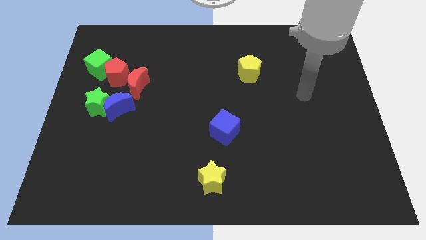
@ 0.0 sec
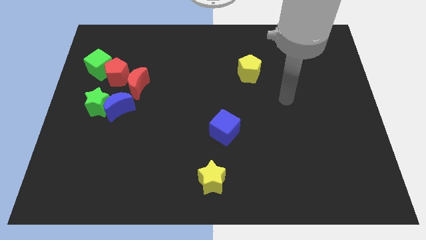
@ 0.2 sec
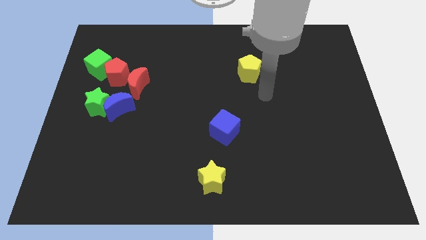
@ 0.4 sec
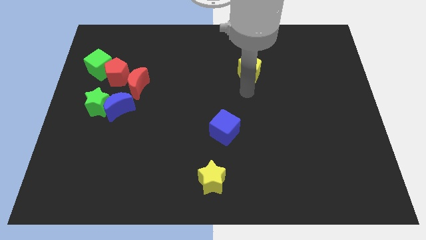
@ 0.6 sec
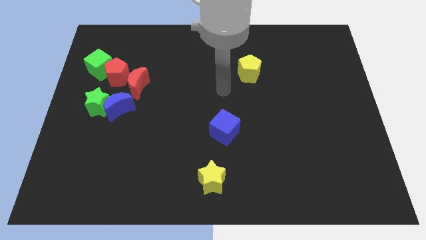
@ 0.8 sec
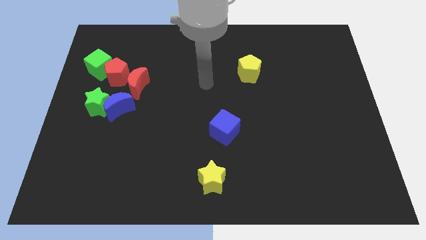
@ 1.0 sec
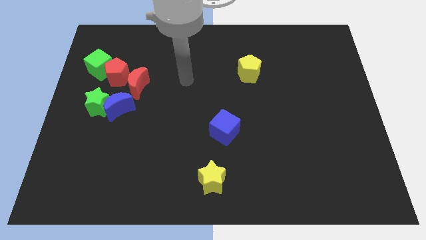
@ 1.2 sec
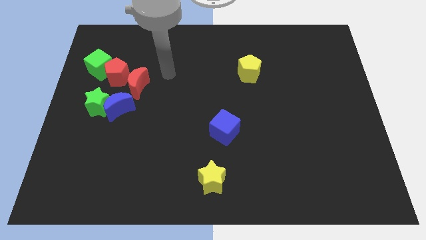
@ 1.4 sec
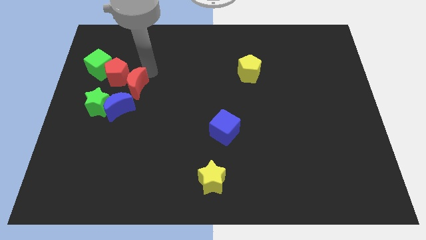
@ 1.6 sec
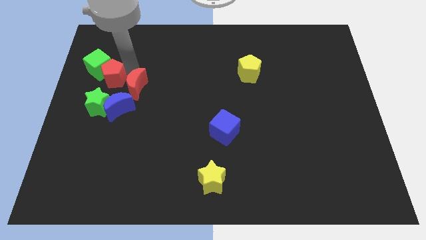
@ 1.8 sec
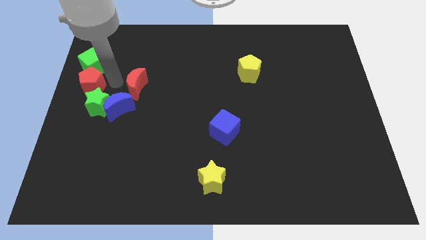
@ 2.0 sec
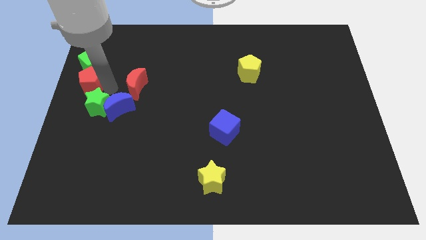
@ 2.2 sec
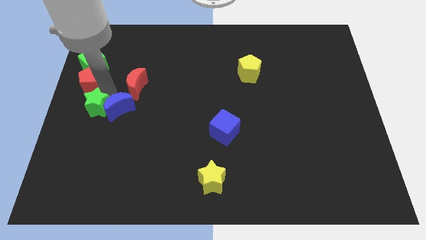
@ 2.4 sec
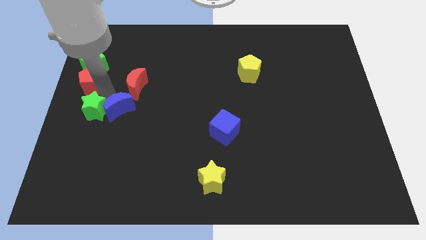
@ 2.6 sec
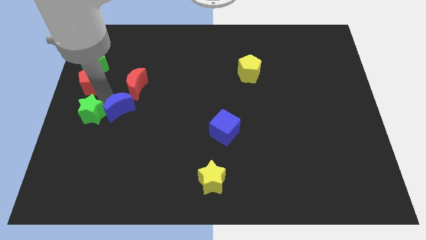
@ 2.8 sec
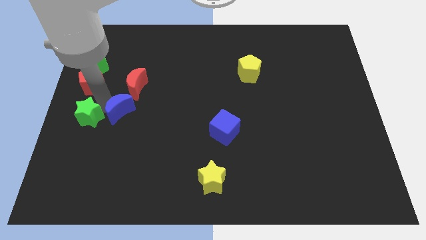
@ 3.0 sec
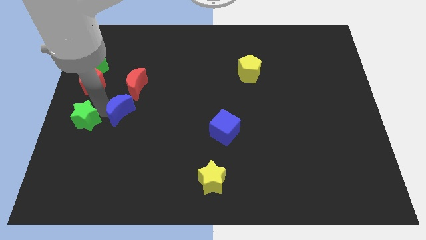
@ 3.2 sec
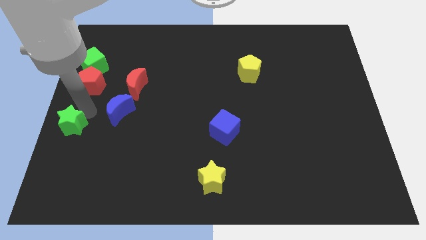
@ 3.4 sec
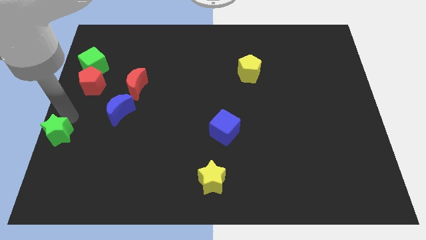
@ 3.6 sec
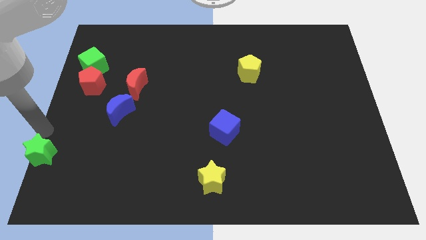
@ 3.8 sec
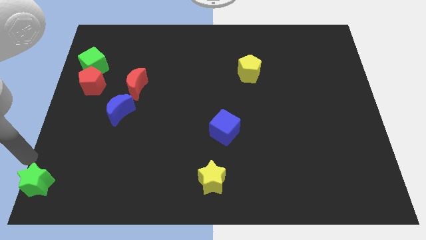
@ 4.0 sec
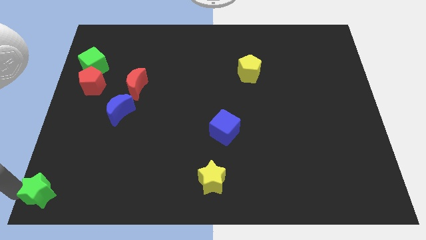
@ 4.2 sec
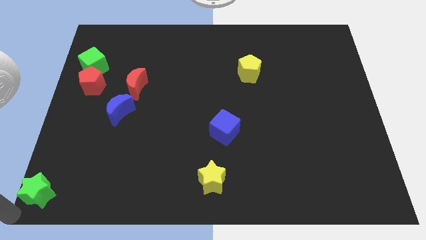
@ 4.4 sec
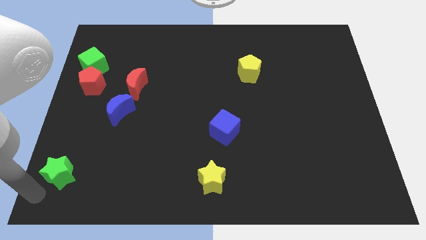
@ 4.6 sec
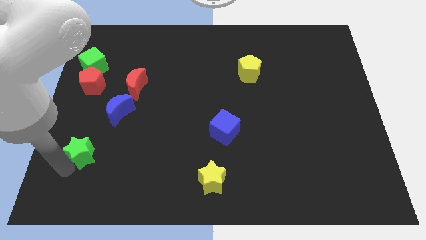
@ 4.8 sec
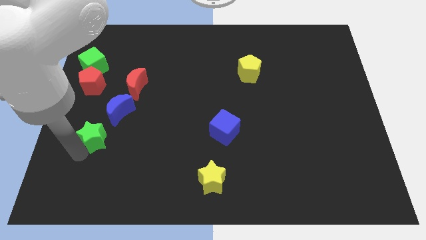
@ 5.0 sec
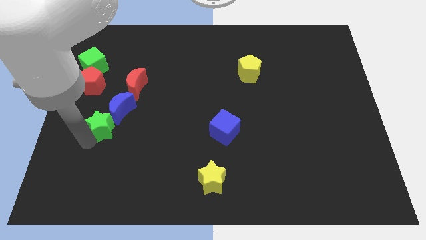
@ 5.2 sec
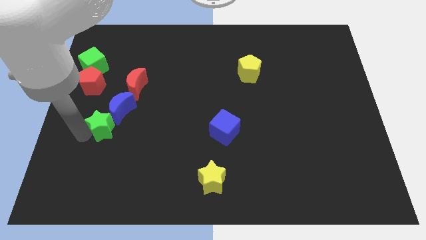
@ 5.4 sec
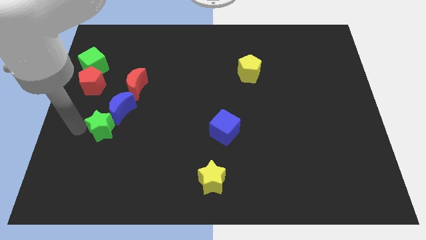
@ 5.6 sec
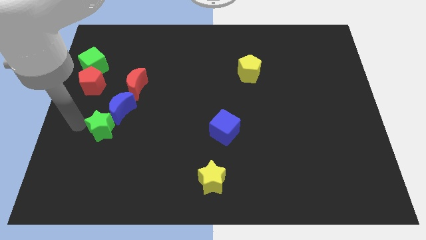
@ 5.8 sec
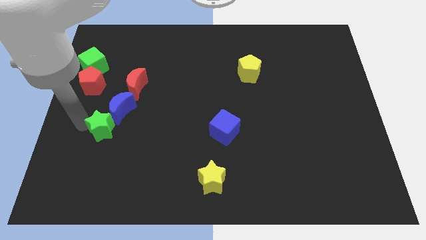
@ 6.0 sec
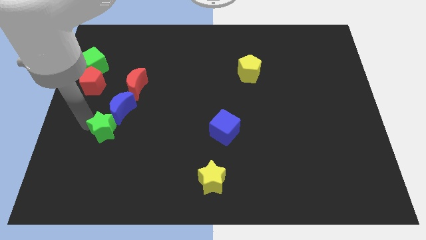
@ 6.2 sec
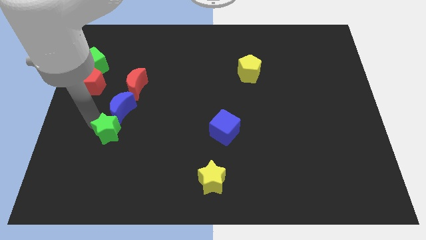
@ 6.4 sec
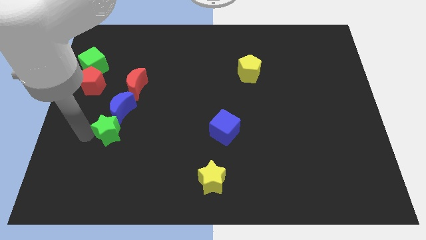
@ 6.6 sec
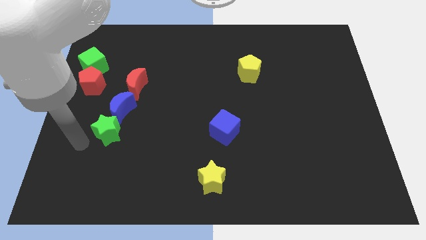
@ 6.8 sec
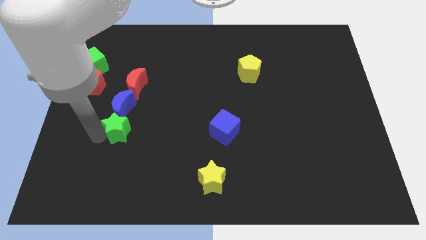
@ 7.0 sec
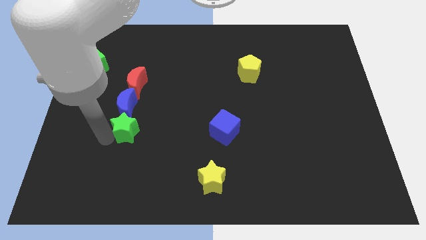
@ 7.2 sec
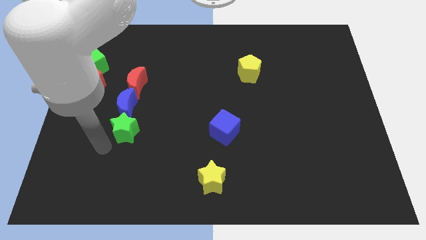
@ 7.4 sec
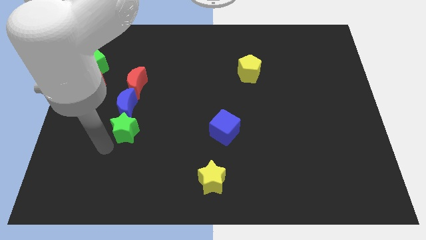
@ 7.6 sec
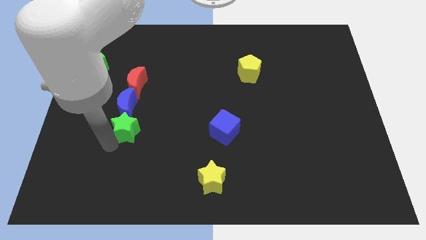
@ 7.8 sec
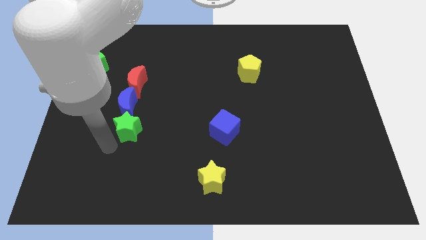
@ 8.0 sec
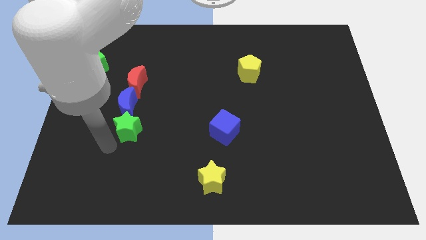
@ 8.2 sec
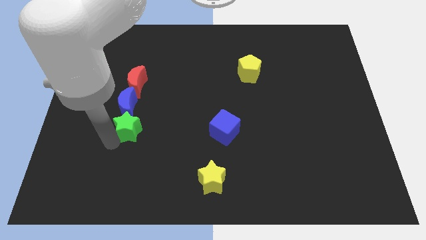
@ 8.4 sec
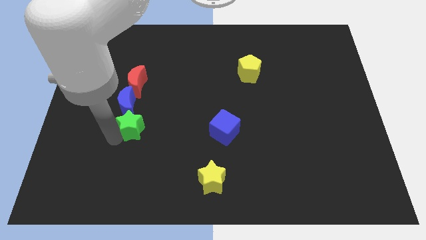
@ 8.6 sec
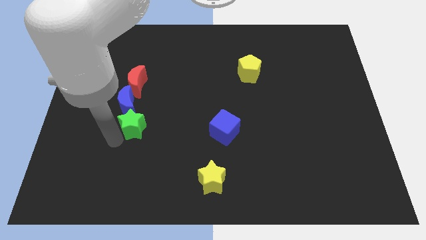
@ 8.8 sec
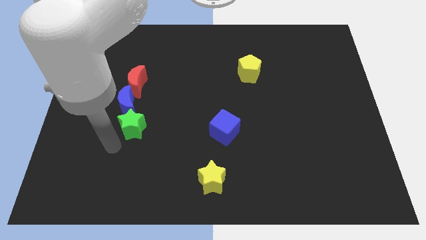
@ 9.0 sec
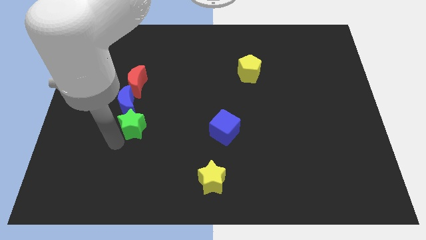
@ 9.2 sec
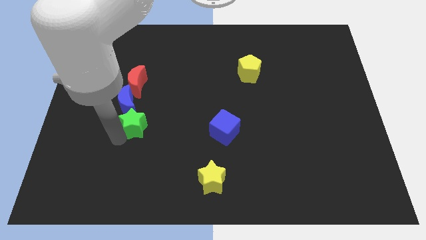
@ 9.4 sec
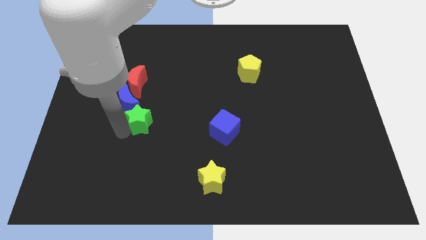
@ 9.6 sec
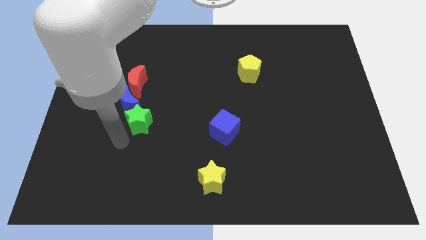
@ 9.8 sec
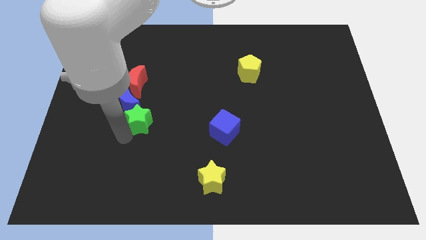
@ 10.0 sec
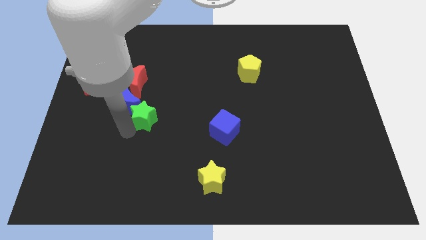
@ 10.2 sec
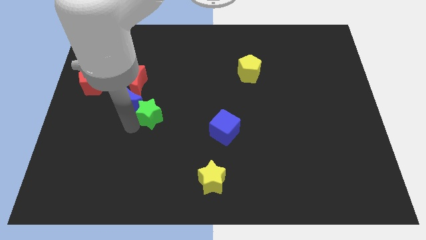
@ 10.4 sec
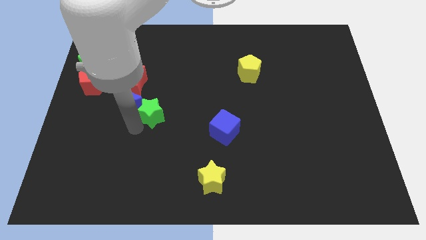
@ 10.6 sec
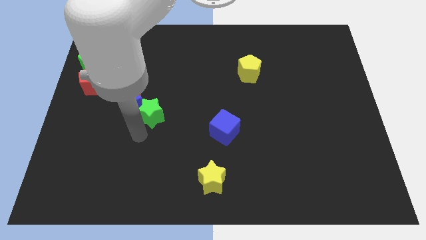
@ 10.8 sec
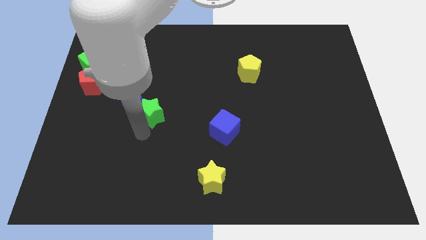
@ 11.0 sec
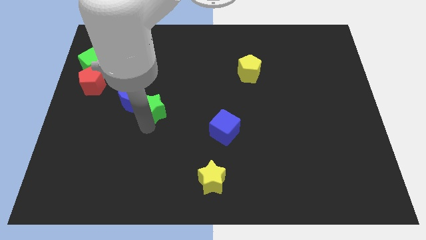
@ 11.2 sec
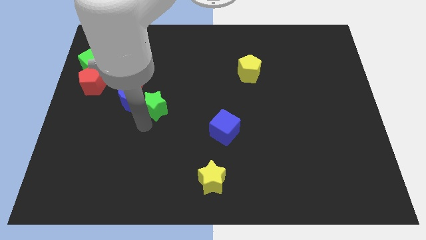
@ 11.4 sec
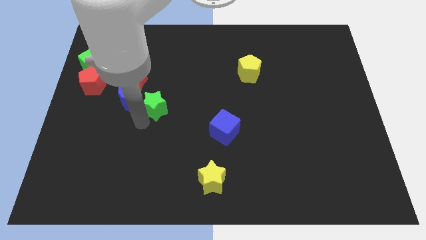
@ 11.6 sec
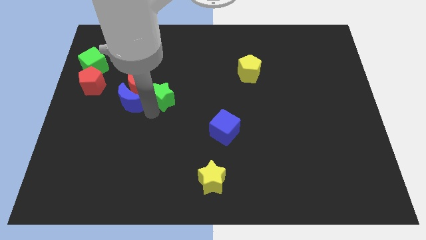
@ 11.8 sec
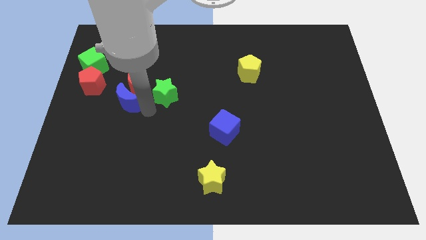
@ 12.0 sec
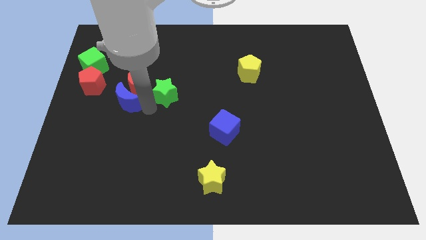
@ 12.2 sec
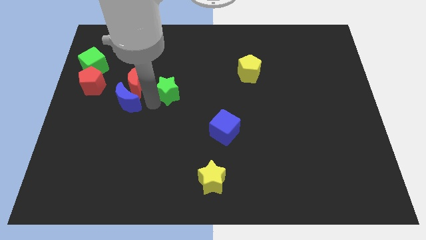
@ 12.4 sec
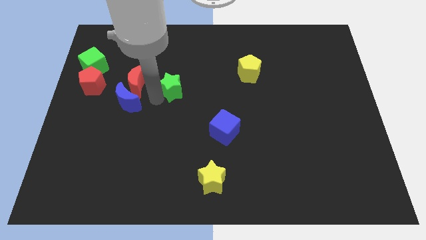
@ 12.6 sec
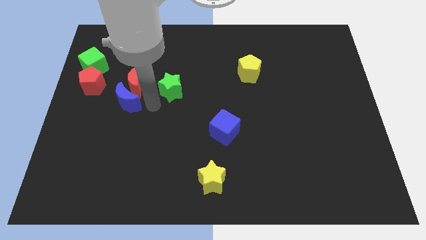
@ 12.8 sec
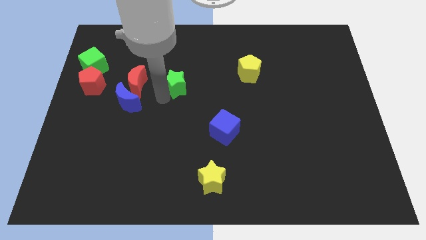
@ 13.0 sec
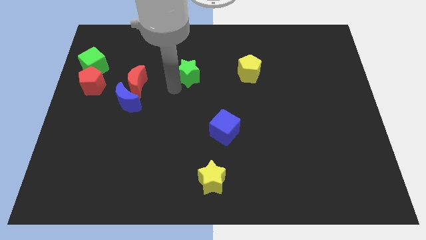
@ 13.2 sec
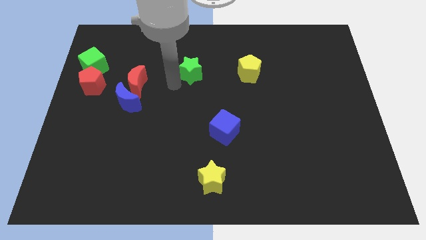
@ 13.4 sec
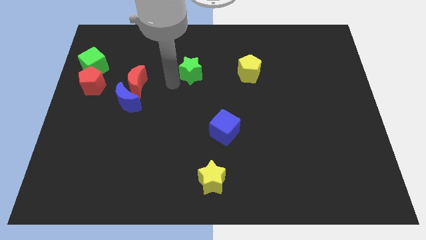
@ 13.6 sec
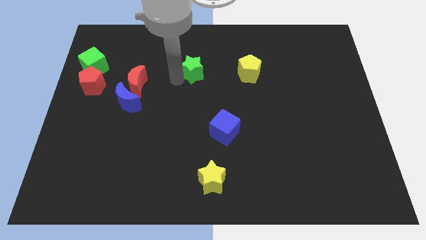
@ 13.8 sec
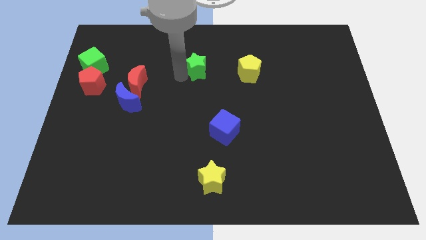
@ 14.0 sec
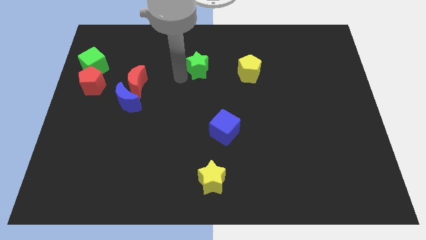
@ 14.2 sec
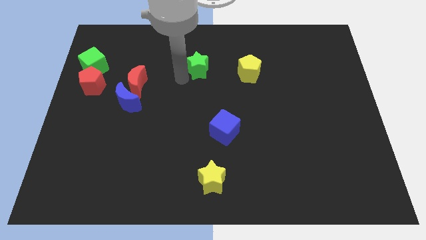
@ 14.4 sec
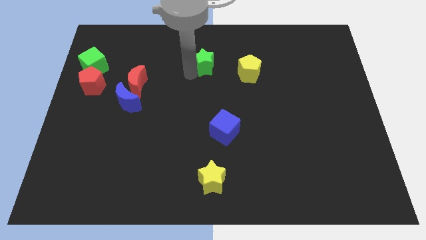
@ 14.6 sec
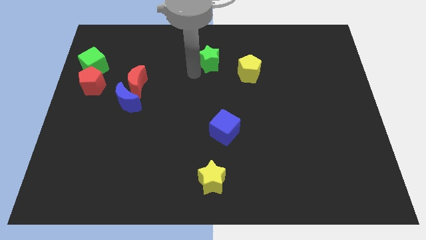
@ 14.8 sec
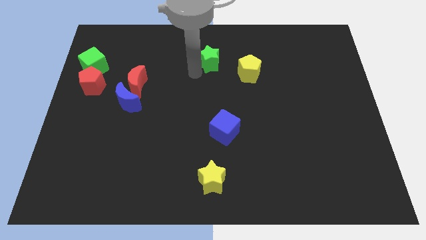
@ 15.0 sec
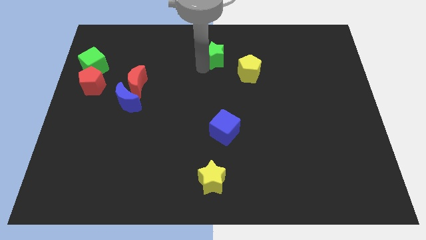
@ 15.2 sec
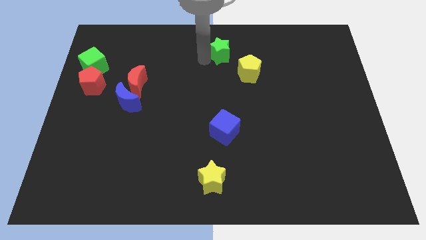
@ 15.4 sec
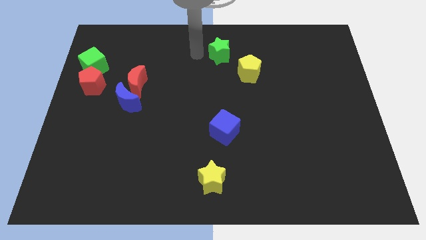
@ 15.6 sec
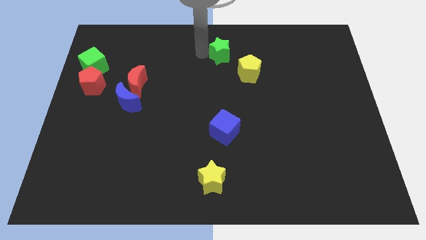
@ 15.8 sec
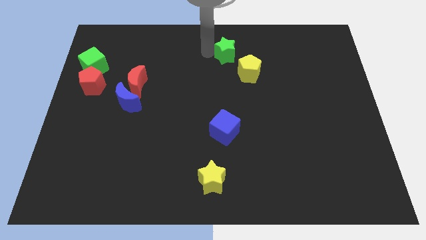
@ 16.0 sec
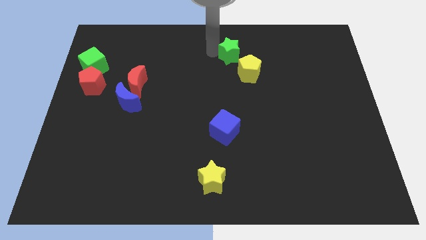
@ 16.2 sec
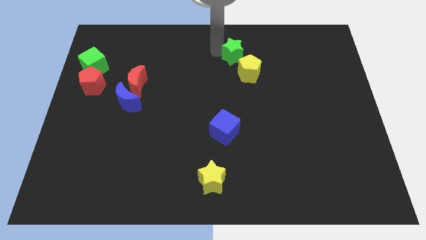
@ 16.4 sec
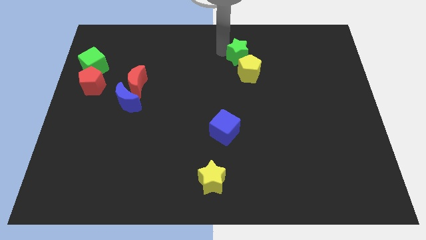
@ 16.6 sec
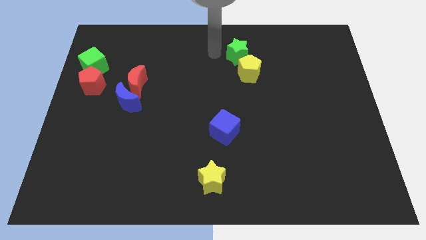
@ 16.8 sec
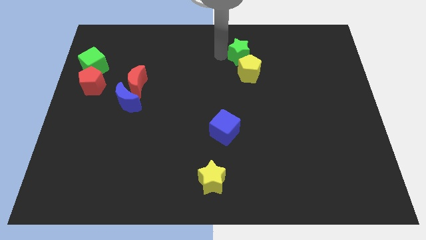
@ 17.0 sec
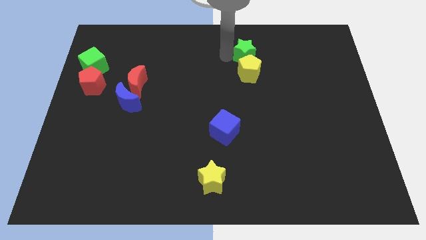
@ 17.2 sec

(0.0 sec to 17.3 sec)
move the green star to the top right side of the yellow pentagon
